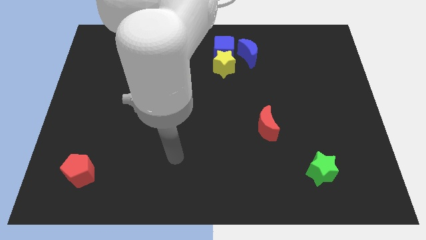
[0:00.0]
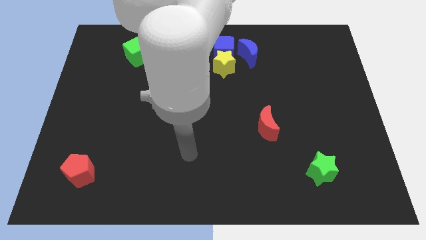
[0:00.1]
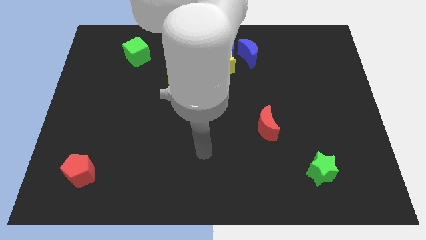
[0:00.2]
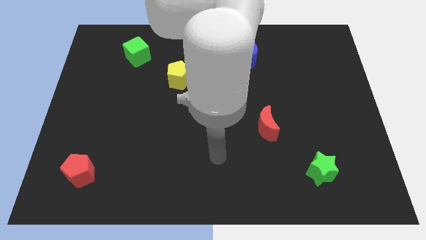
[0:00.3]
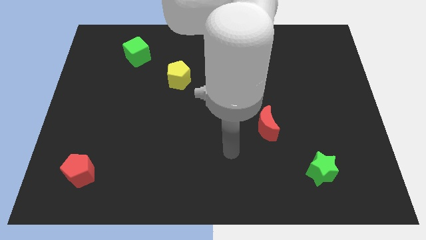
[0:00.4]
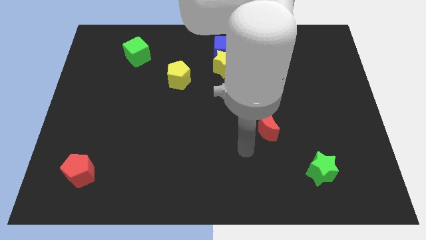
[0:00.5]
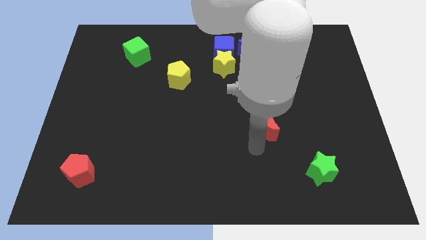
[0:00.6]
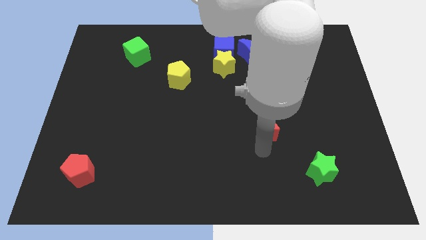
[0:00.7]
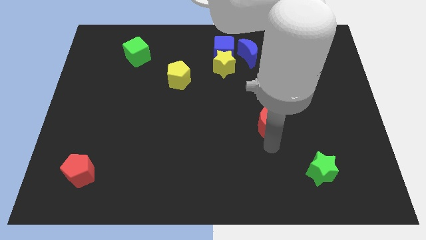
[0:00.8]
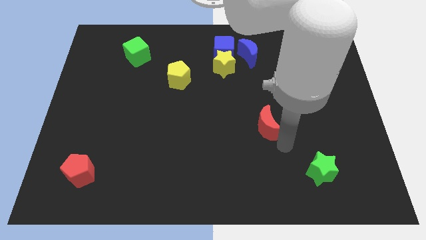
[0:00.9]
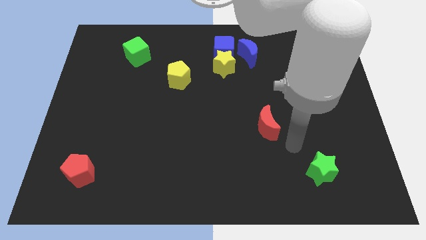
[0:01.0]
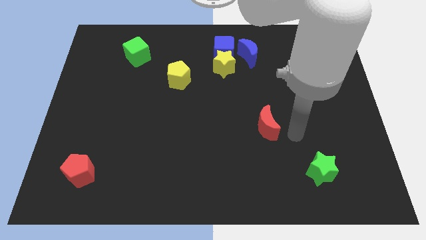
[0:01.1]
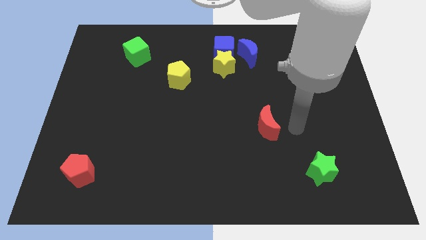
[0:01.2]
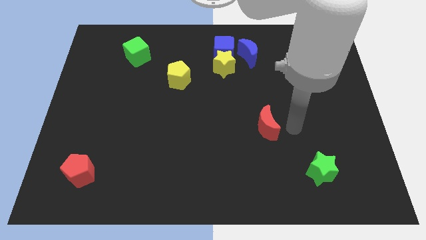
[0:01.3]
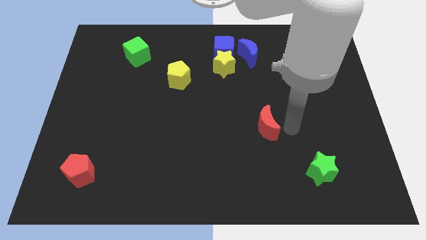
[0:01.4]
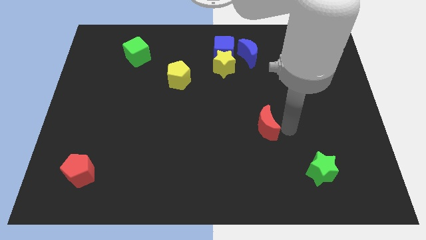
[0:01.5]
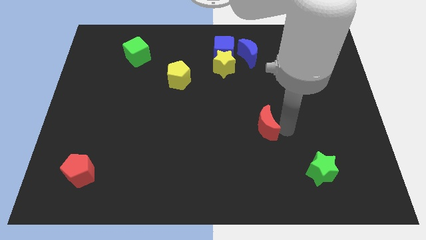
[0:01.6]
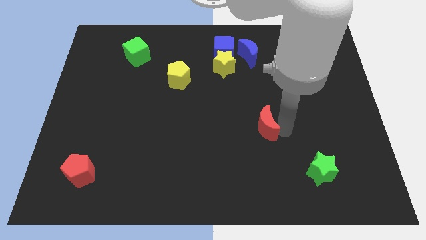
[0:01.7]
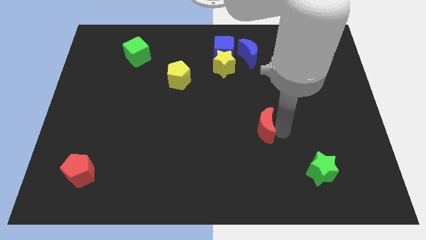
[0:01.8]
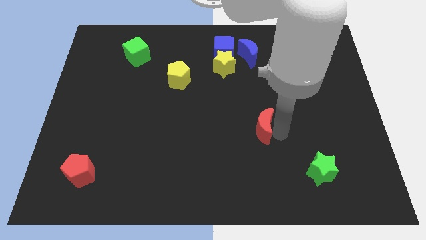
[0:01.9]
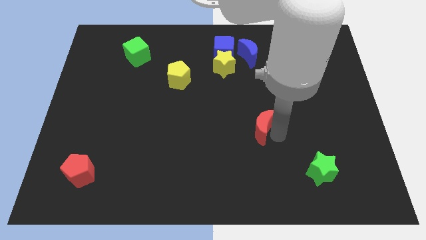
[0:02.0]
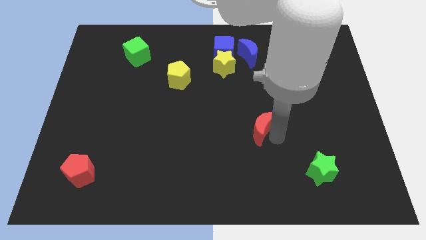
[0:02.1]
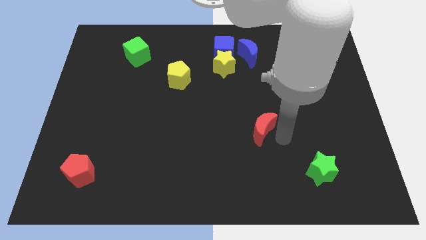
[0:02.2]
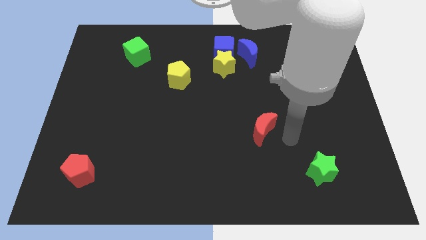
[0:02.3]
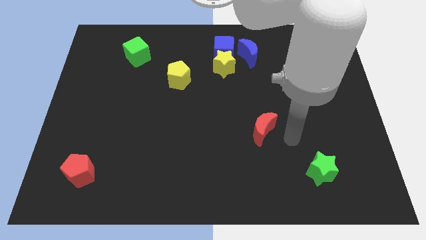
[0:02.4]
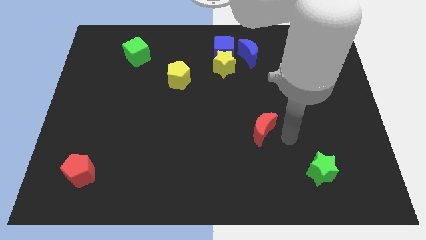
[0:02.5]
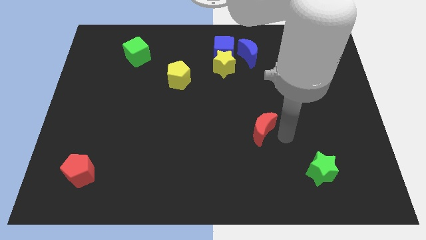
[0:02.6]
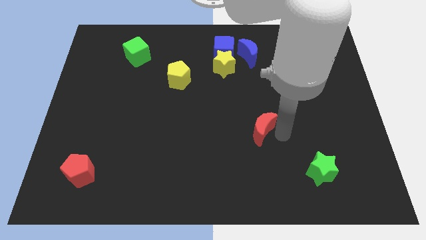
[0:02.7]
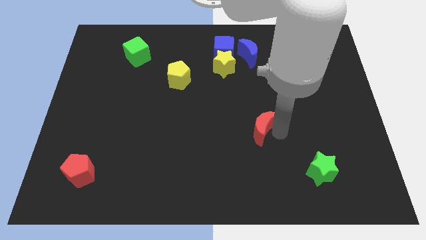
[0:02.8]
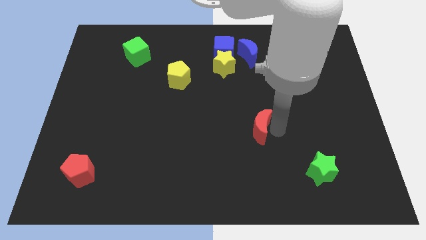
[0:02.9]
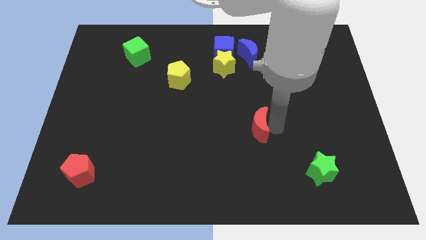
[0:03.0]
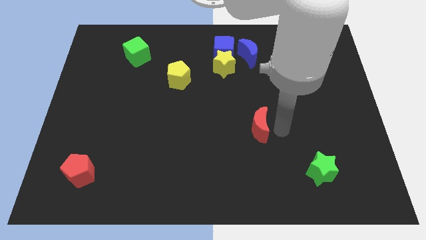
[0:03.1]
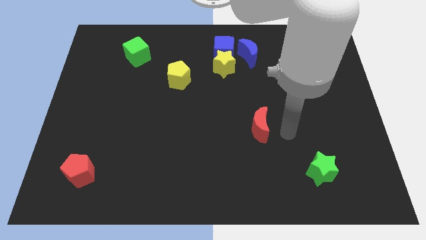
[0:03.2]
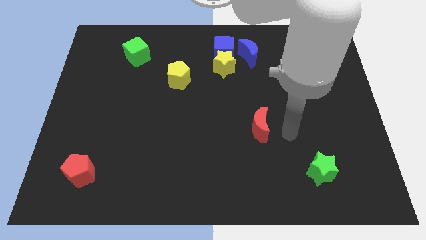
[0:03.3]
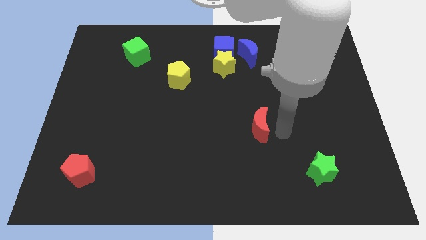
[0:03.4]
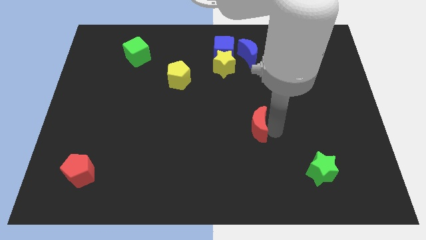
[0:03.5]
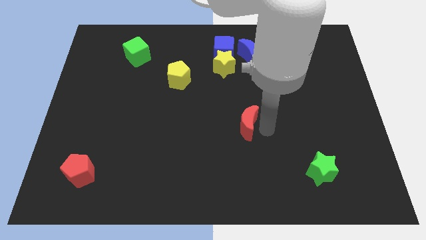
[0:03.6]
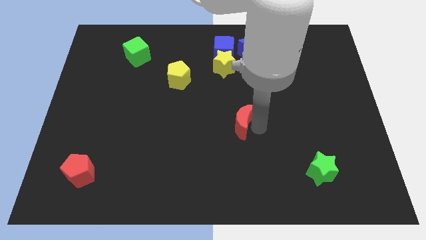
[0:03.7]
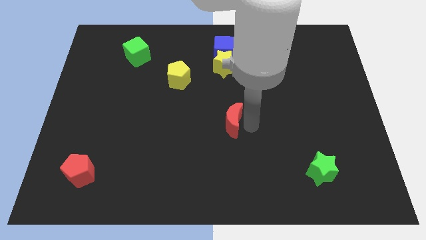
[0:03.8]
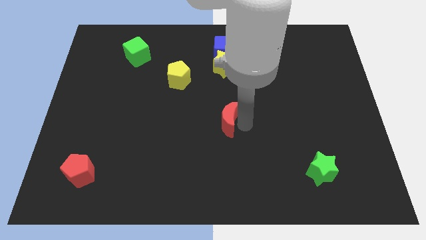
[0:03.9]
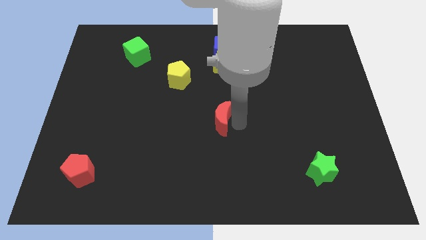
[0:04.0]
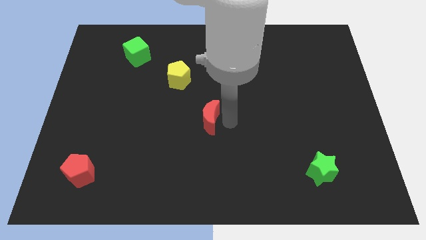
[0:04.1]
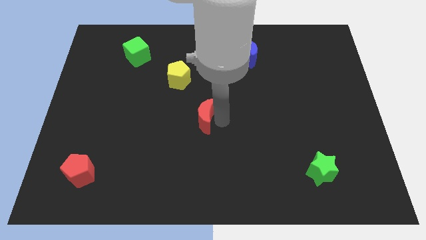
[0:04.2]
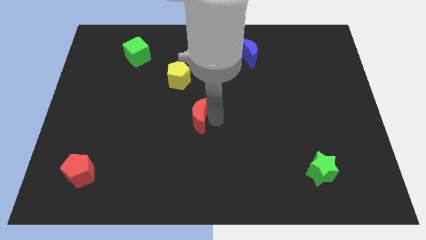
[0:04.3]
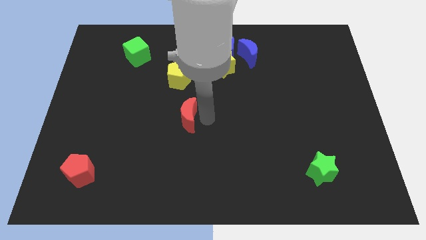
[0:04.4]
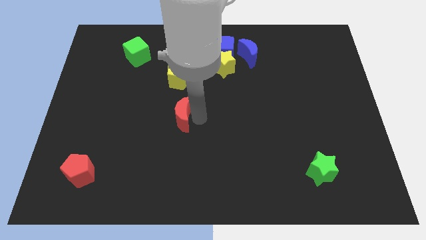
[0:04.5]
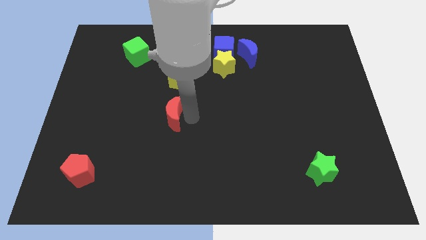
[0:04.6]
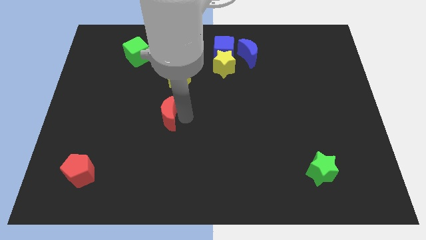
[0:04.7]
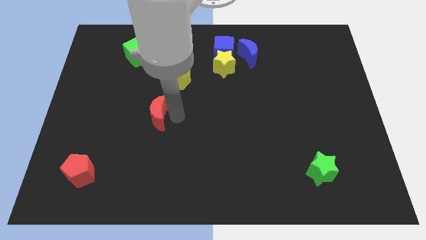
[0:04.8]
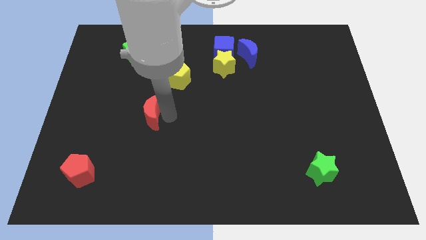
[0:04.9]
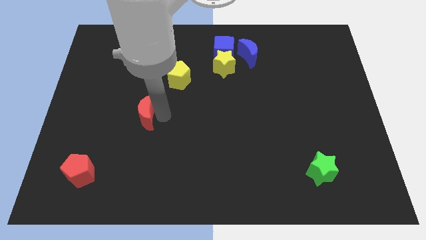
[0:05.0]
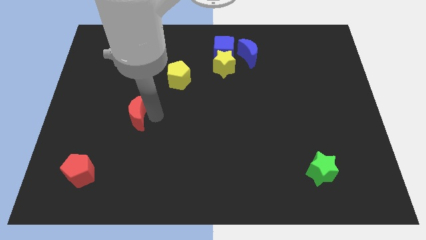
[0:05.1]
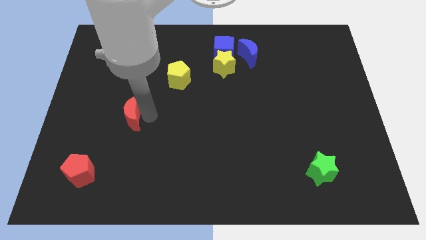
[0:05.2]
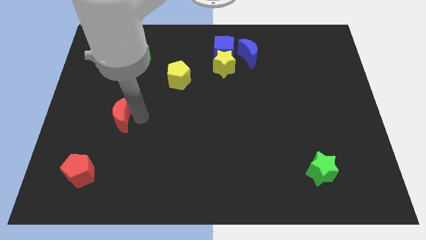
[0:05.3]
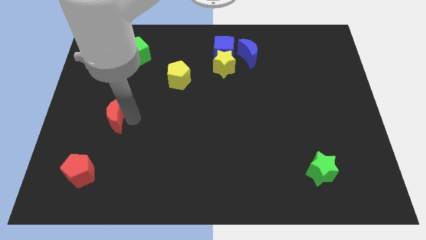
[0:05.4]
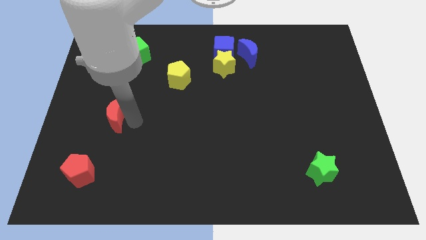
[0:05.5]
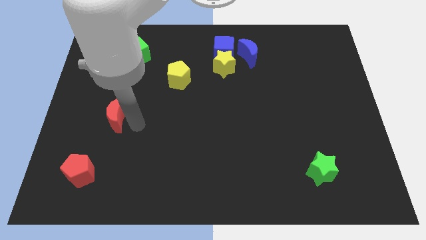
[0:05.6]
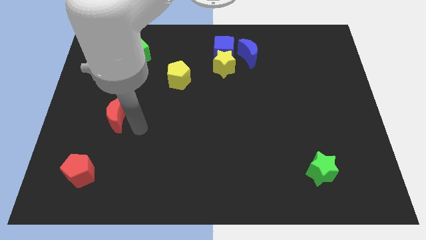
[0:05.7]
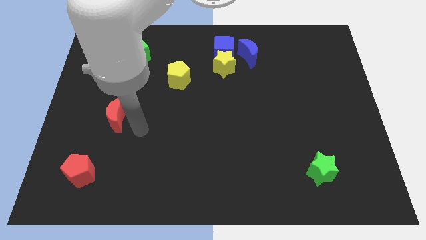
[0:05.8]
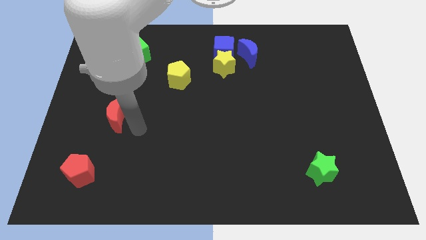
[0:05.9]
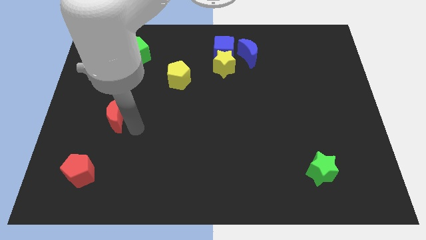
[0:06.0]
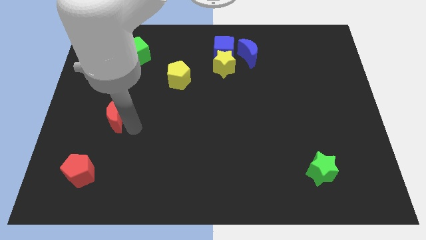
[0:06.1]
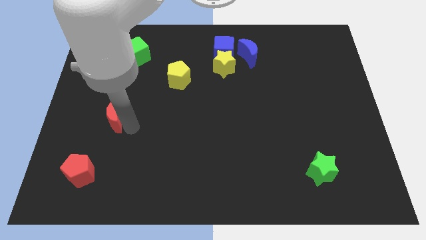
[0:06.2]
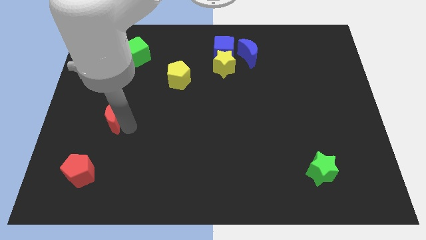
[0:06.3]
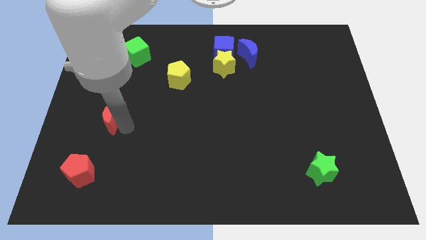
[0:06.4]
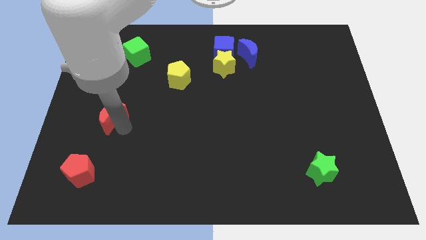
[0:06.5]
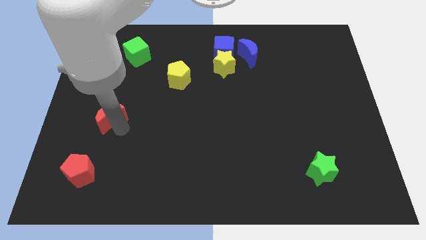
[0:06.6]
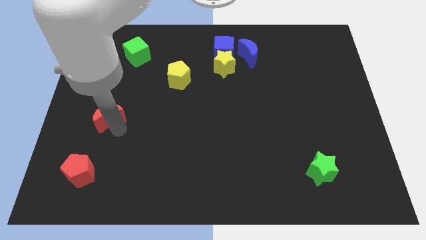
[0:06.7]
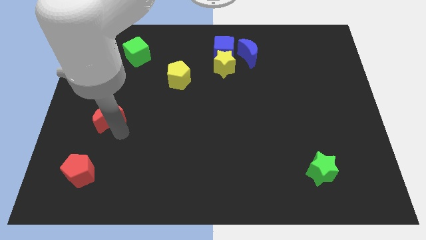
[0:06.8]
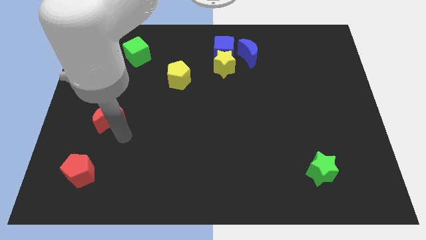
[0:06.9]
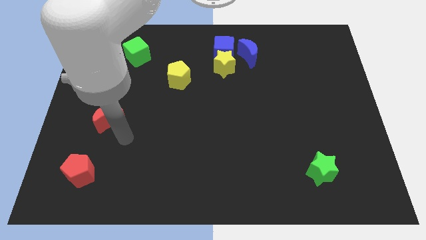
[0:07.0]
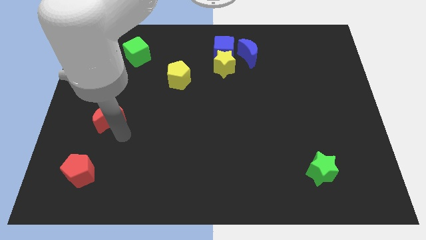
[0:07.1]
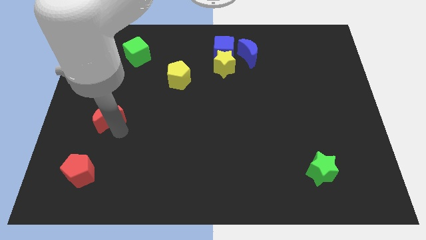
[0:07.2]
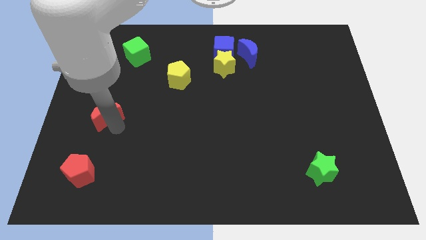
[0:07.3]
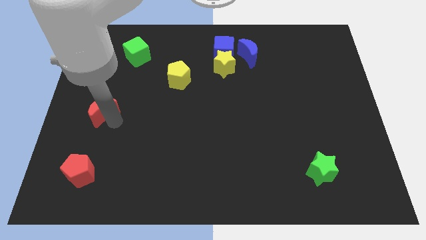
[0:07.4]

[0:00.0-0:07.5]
move the red moon to the left side of the board
